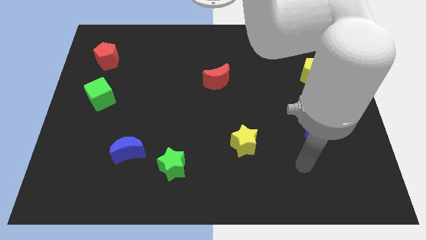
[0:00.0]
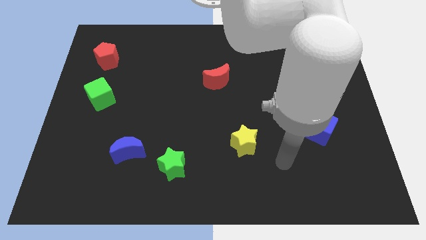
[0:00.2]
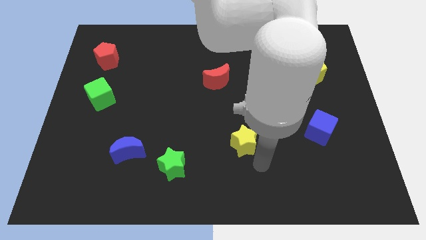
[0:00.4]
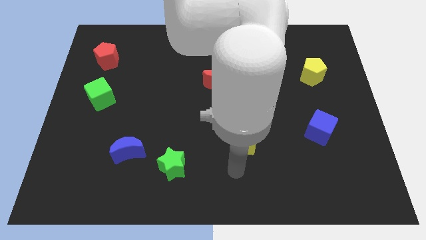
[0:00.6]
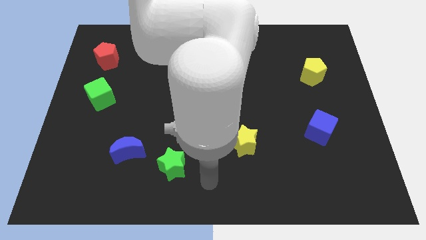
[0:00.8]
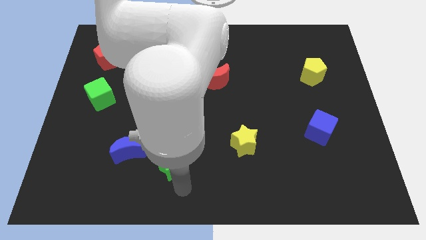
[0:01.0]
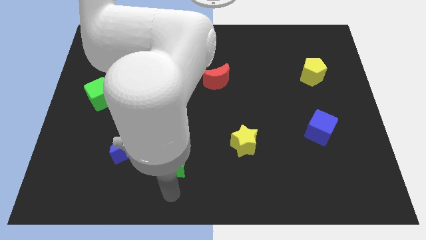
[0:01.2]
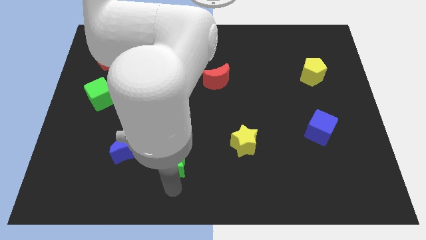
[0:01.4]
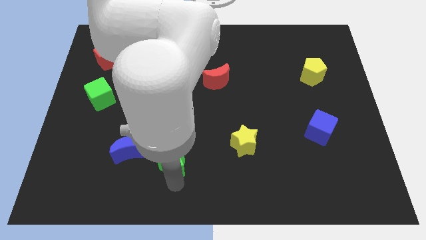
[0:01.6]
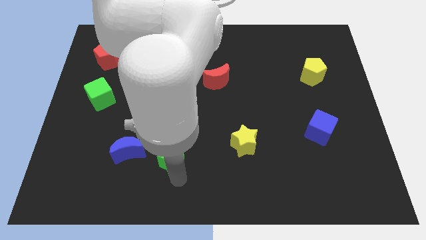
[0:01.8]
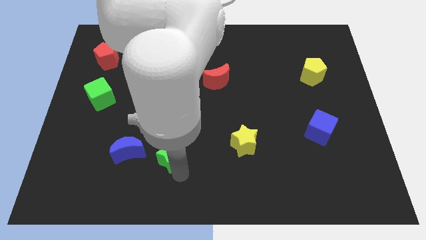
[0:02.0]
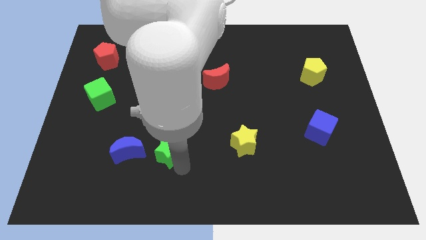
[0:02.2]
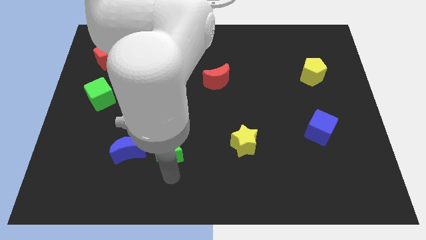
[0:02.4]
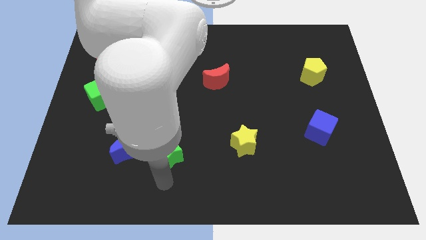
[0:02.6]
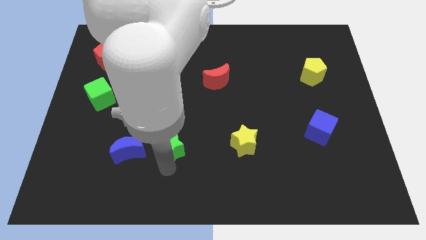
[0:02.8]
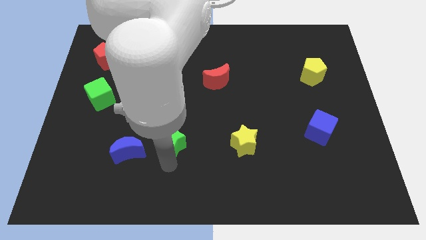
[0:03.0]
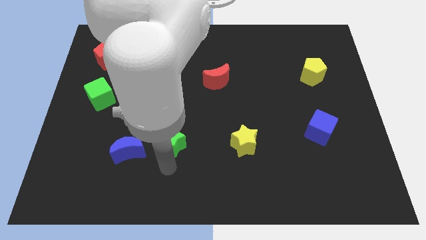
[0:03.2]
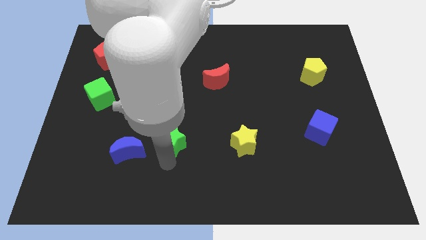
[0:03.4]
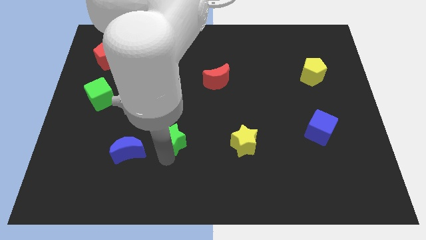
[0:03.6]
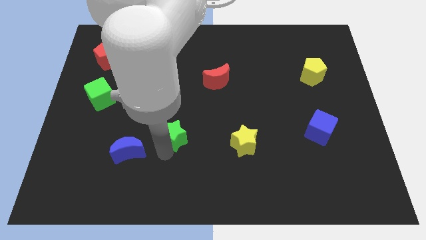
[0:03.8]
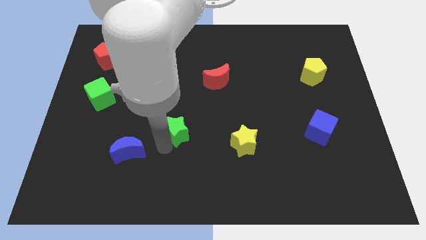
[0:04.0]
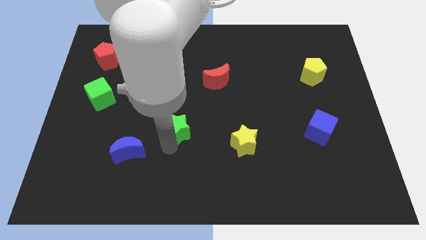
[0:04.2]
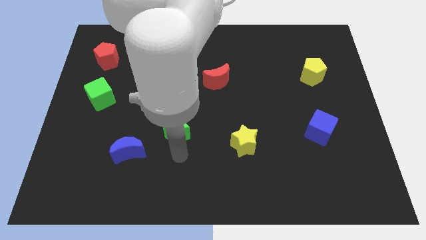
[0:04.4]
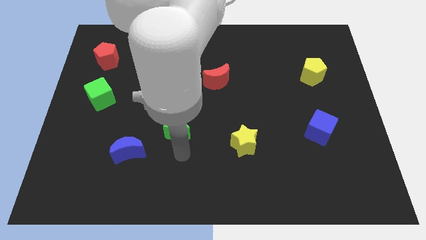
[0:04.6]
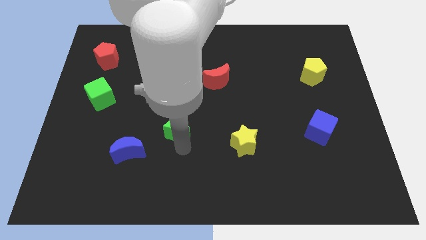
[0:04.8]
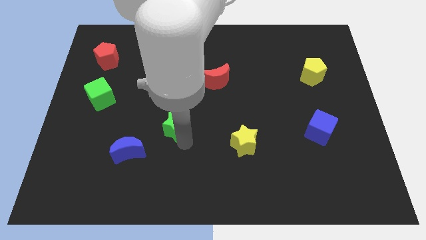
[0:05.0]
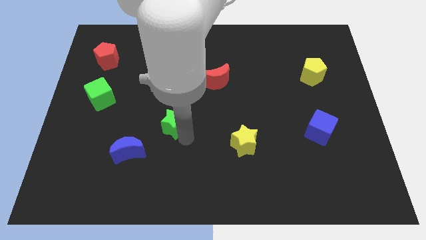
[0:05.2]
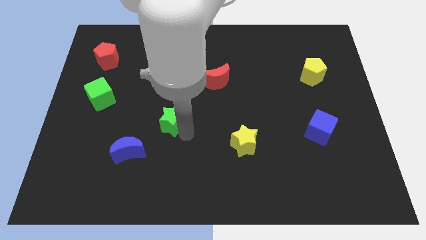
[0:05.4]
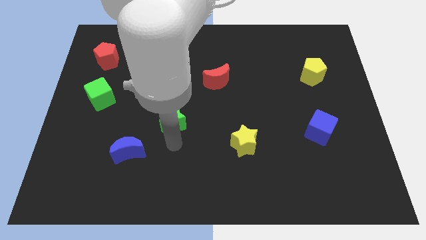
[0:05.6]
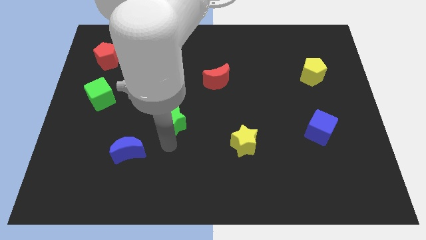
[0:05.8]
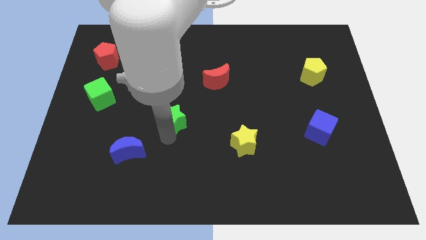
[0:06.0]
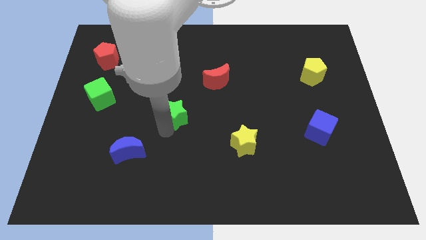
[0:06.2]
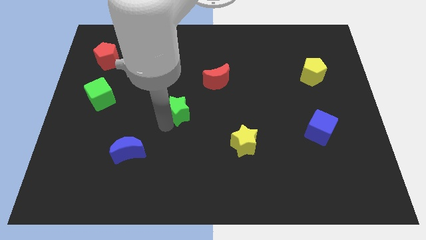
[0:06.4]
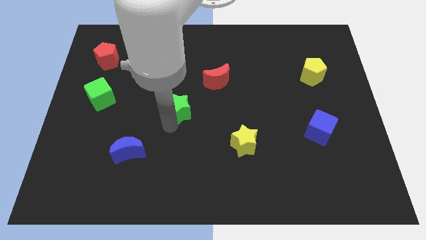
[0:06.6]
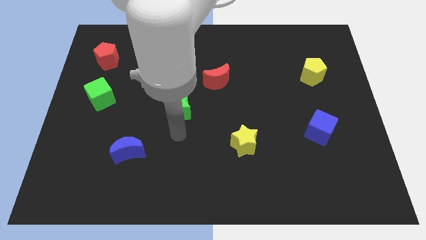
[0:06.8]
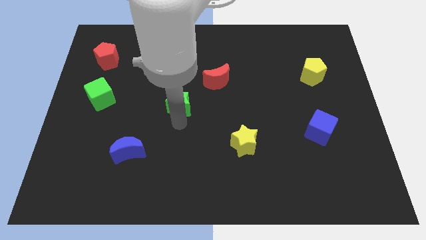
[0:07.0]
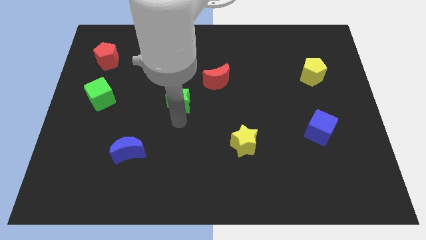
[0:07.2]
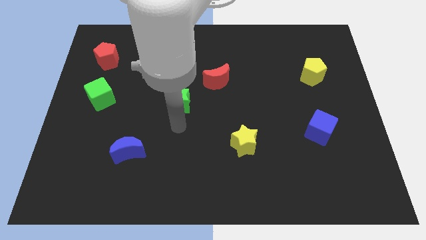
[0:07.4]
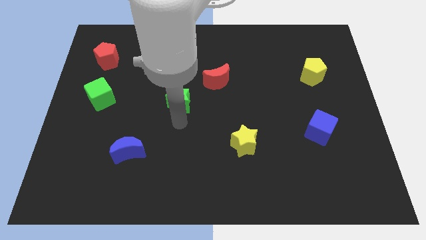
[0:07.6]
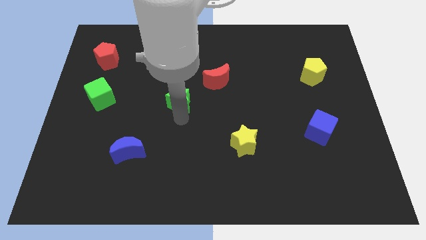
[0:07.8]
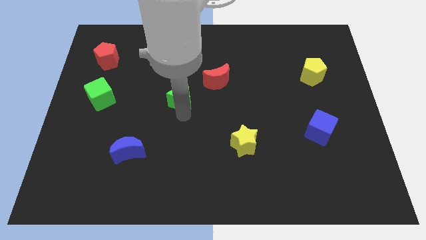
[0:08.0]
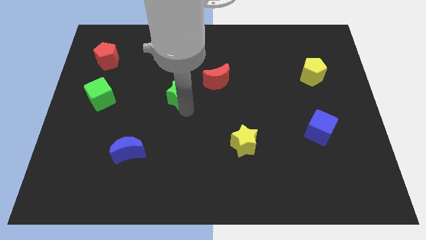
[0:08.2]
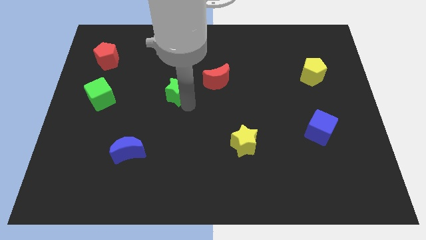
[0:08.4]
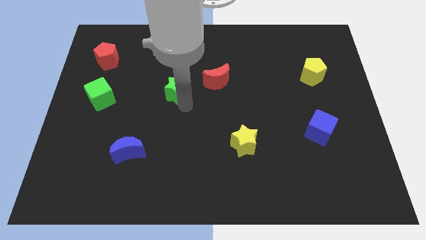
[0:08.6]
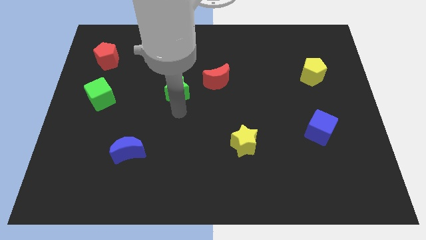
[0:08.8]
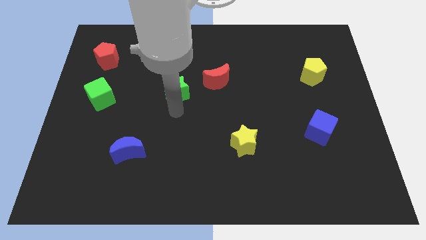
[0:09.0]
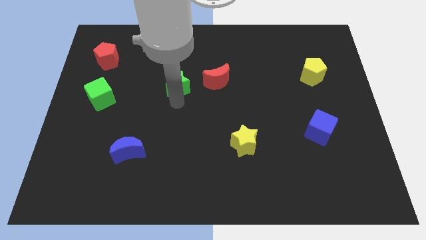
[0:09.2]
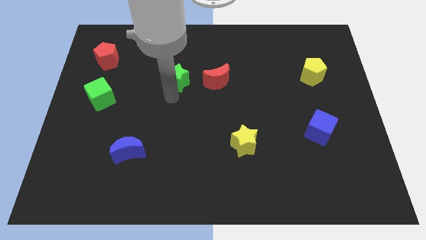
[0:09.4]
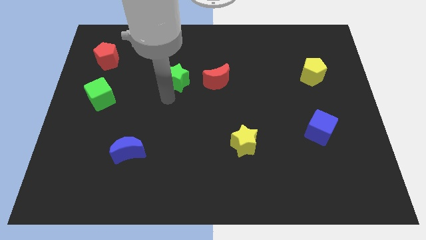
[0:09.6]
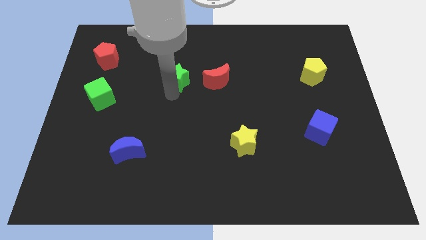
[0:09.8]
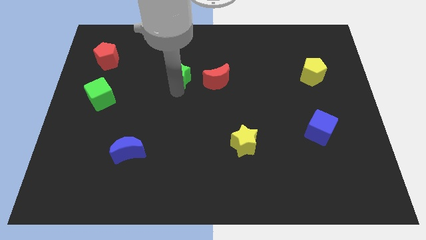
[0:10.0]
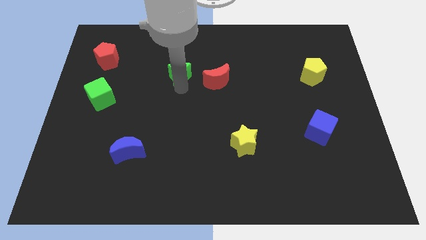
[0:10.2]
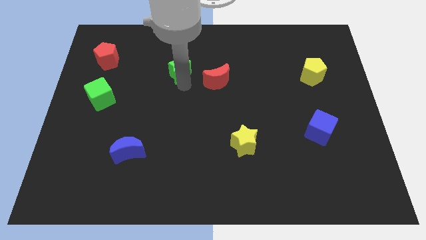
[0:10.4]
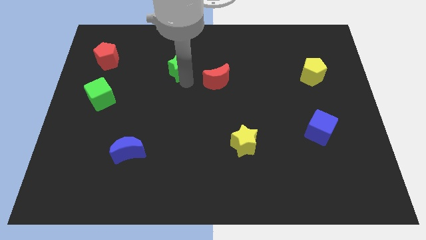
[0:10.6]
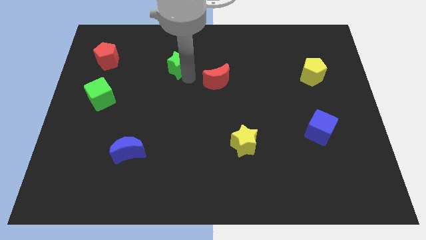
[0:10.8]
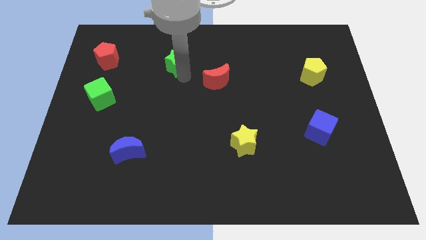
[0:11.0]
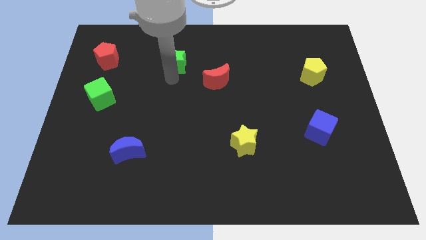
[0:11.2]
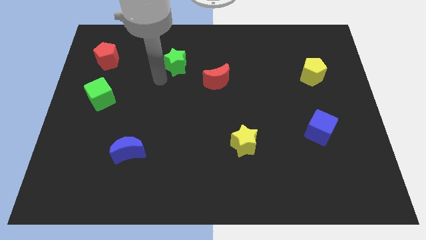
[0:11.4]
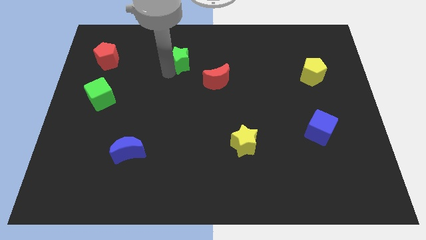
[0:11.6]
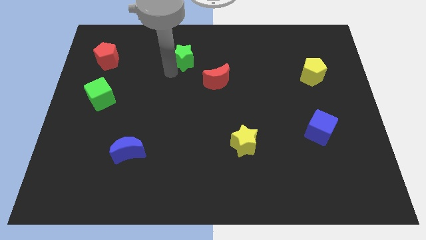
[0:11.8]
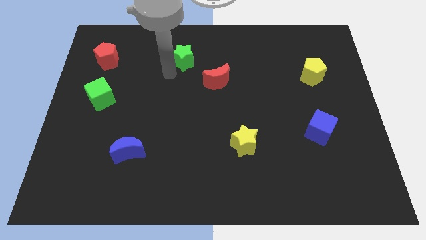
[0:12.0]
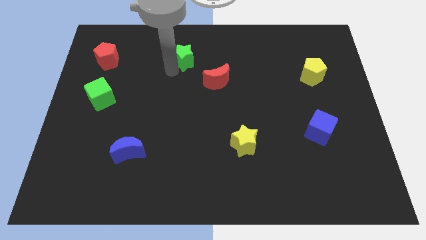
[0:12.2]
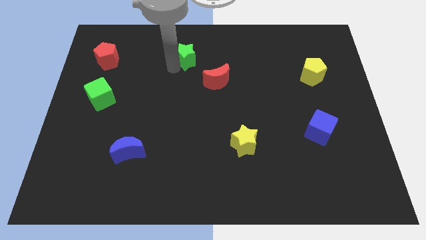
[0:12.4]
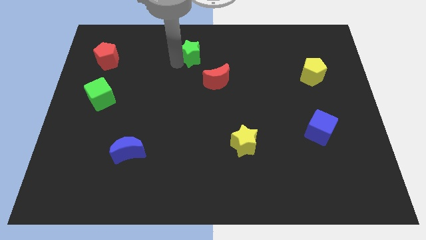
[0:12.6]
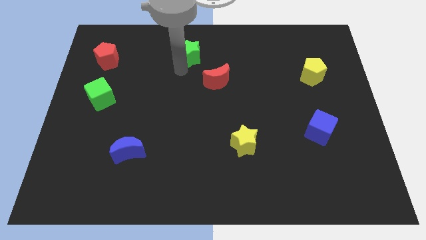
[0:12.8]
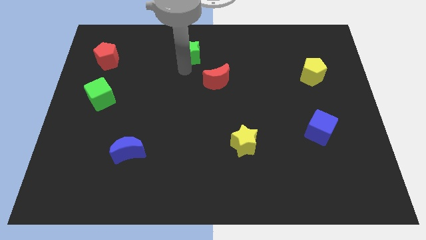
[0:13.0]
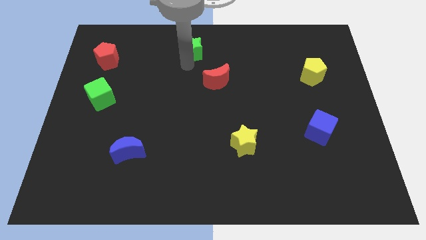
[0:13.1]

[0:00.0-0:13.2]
put the green star to the top

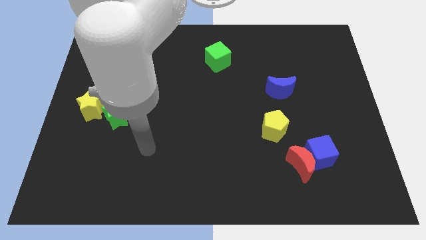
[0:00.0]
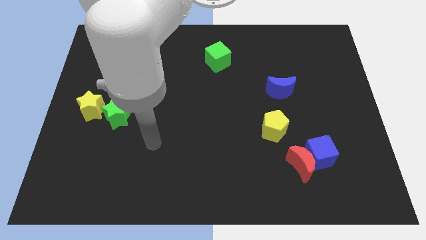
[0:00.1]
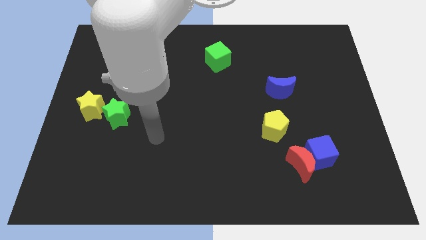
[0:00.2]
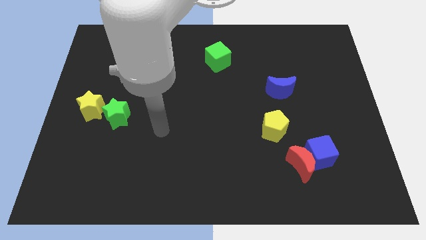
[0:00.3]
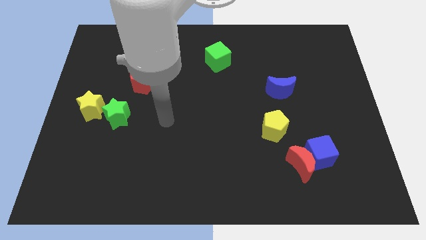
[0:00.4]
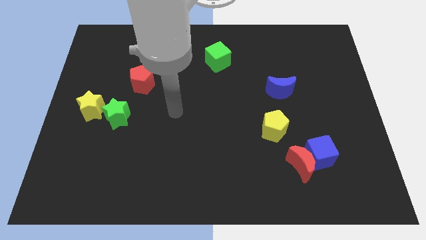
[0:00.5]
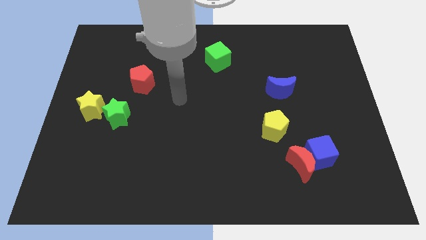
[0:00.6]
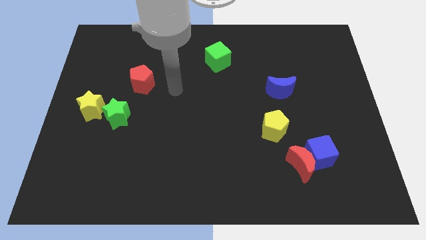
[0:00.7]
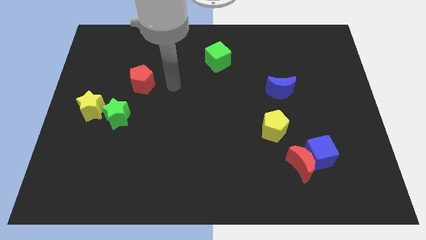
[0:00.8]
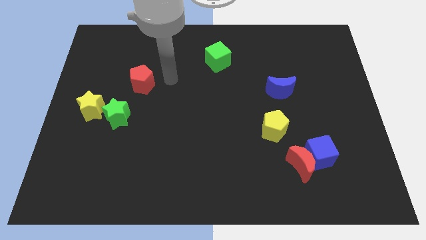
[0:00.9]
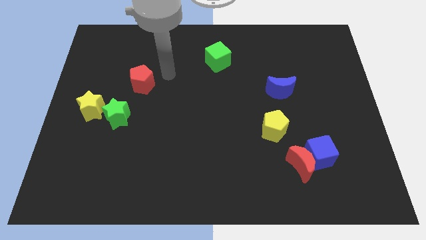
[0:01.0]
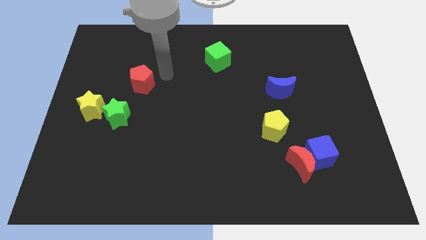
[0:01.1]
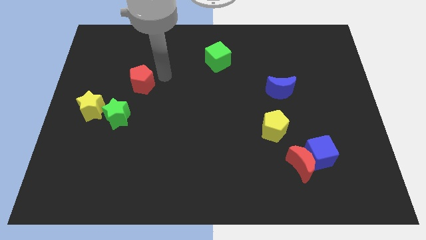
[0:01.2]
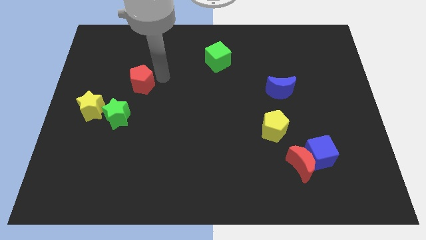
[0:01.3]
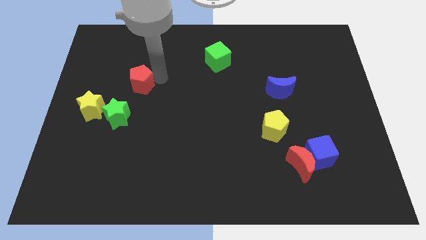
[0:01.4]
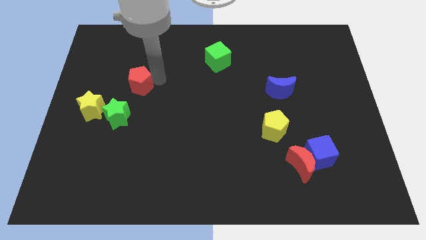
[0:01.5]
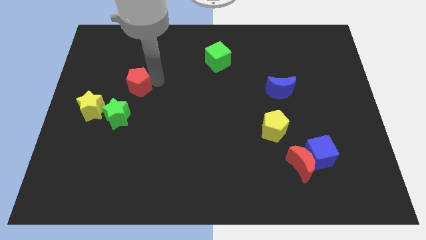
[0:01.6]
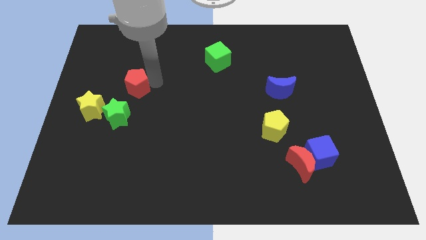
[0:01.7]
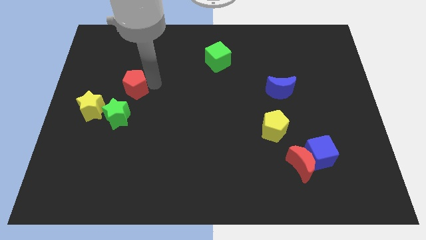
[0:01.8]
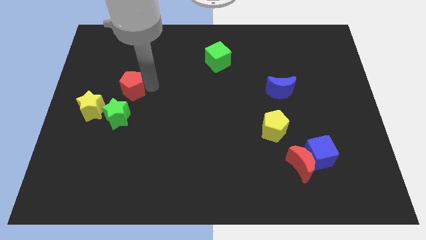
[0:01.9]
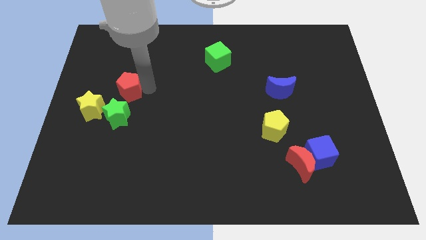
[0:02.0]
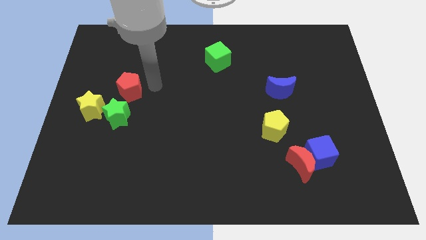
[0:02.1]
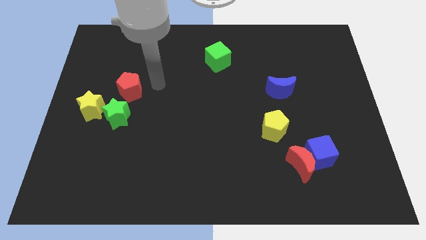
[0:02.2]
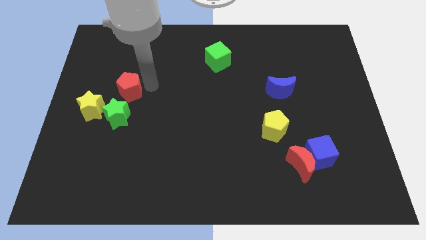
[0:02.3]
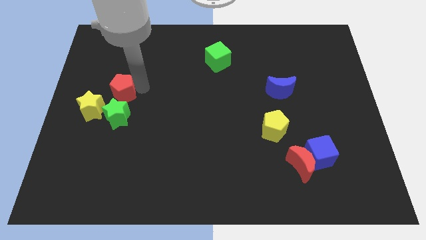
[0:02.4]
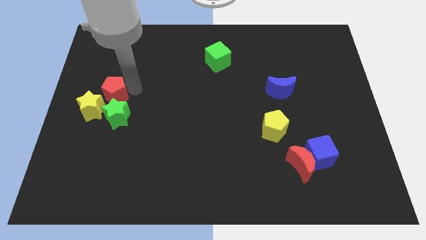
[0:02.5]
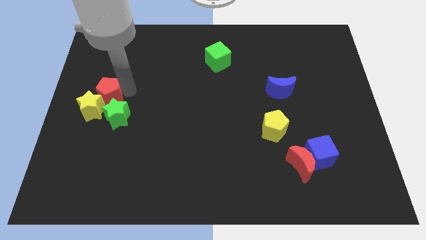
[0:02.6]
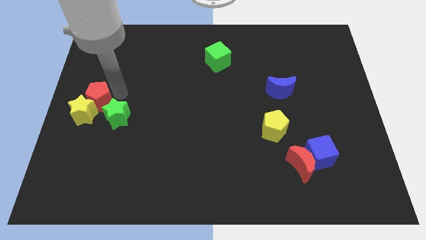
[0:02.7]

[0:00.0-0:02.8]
push the red pentagon to the center left
